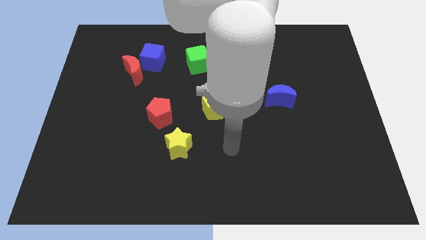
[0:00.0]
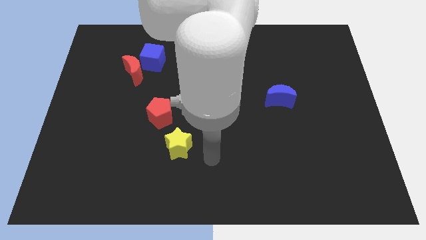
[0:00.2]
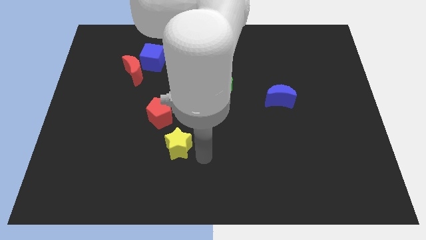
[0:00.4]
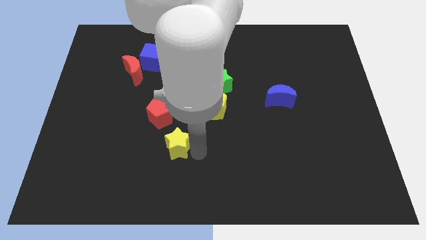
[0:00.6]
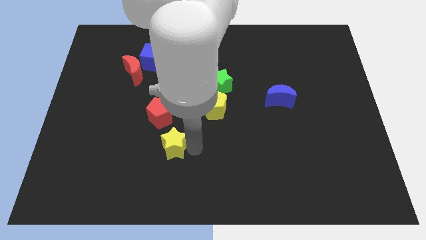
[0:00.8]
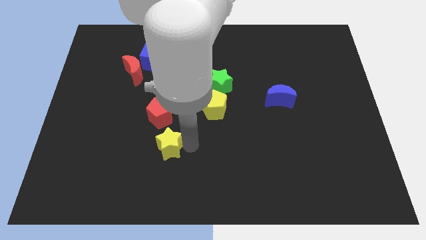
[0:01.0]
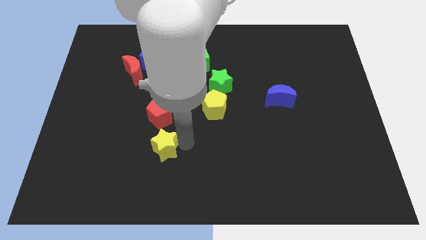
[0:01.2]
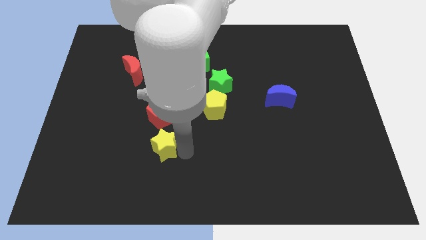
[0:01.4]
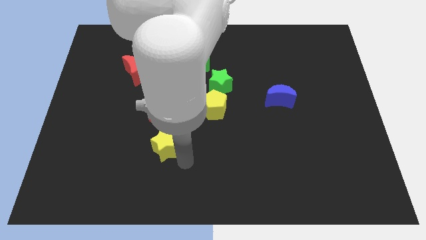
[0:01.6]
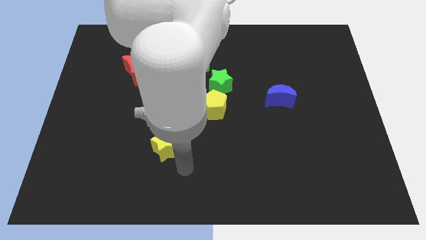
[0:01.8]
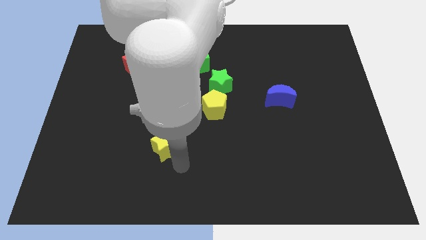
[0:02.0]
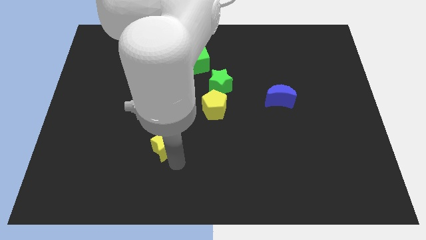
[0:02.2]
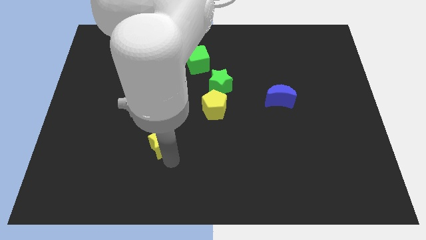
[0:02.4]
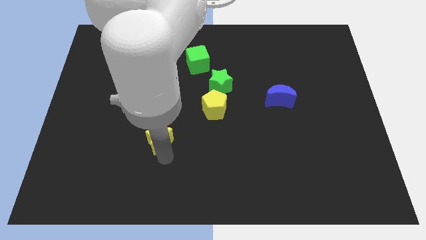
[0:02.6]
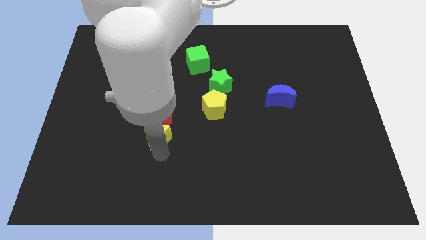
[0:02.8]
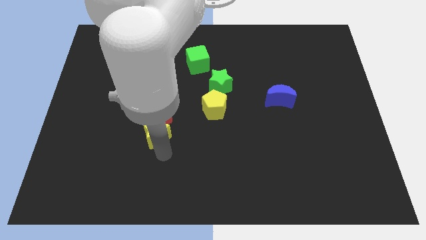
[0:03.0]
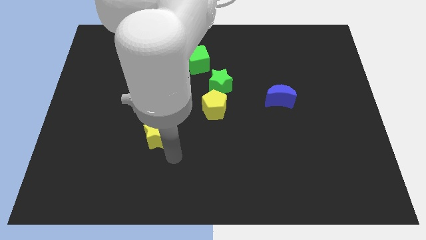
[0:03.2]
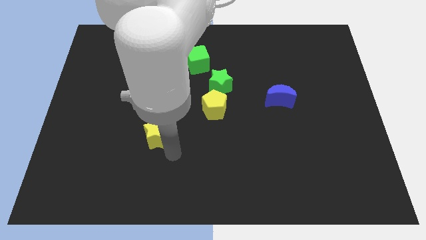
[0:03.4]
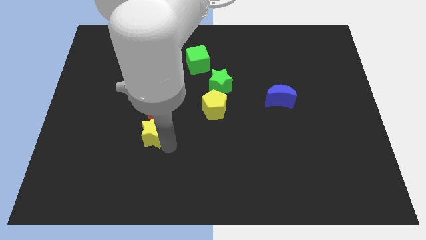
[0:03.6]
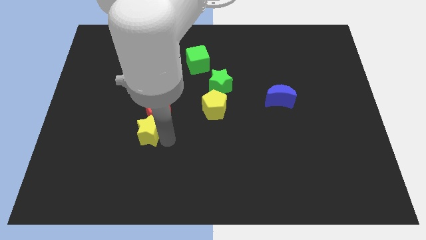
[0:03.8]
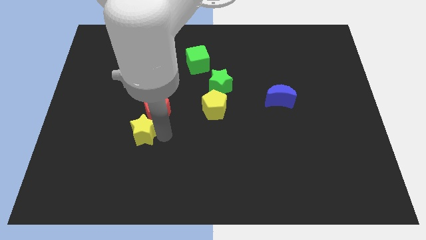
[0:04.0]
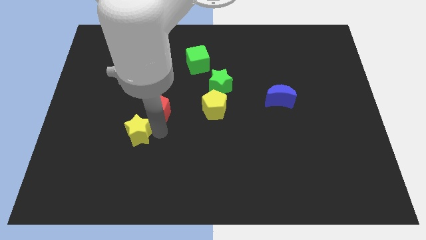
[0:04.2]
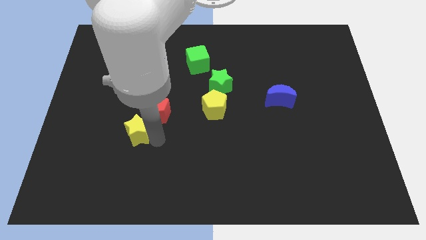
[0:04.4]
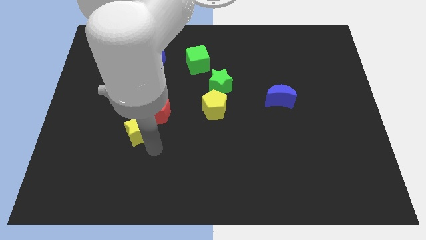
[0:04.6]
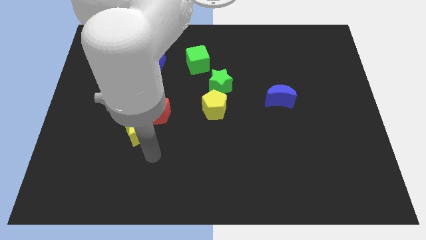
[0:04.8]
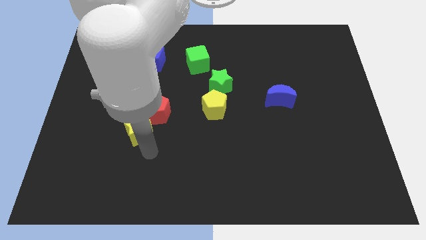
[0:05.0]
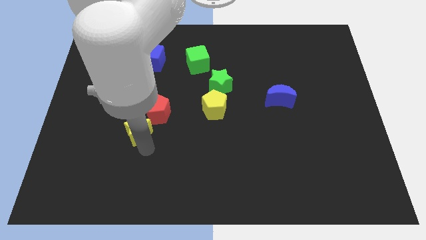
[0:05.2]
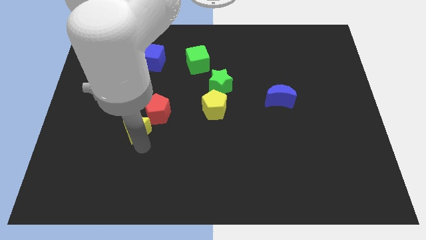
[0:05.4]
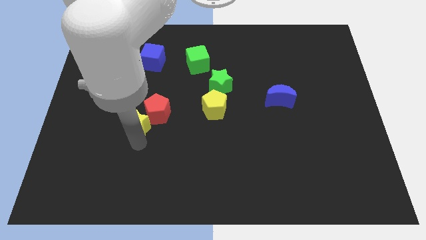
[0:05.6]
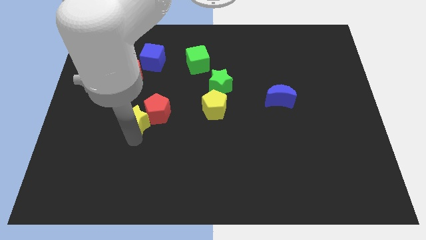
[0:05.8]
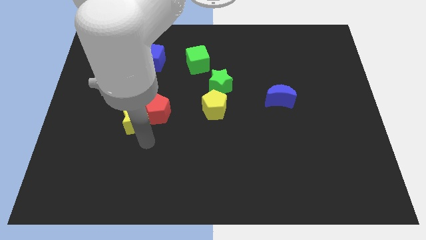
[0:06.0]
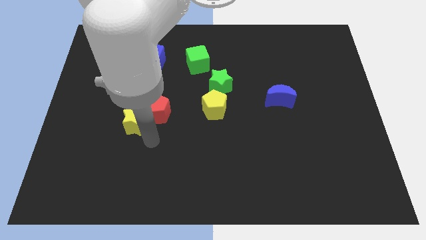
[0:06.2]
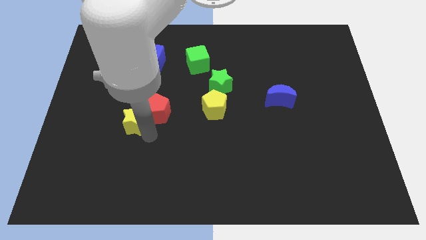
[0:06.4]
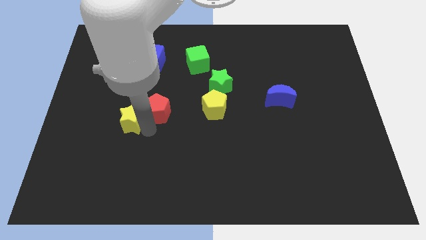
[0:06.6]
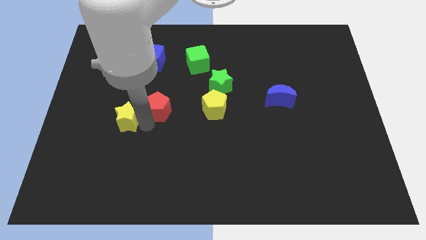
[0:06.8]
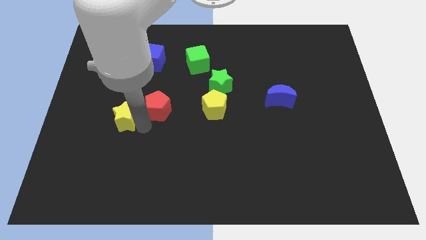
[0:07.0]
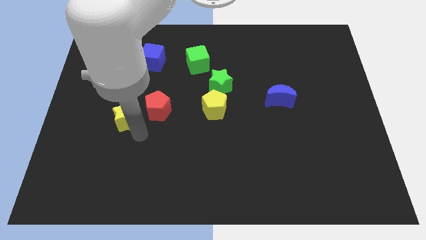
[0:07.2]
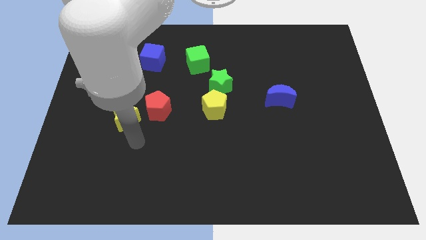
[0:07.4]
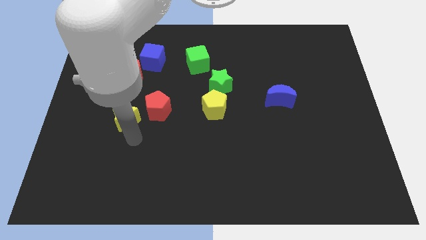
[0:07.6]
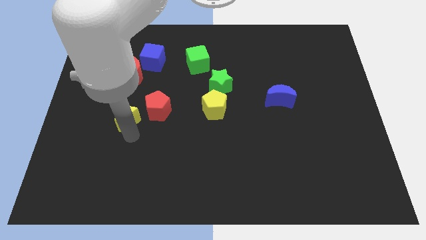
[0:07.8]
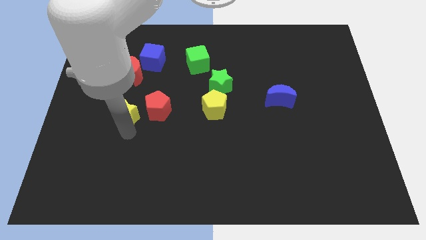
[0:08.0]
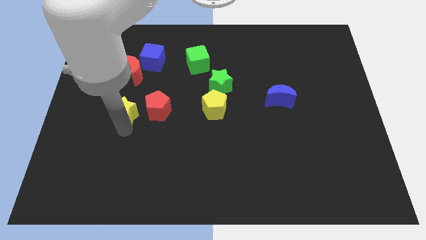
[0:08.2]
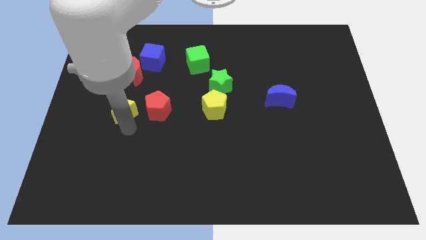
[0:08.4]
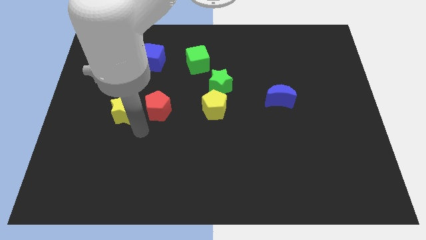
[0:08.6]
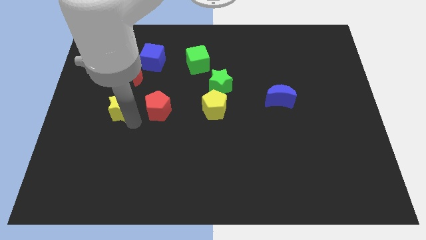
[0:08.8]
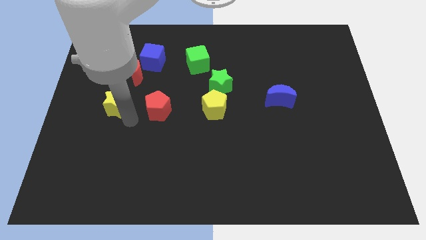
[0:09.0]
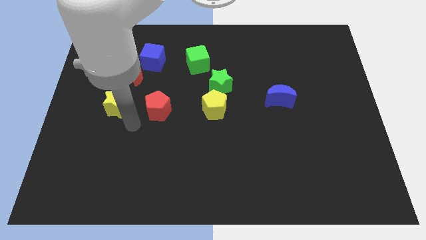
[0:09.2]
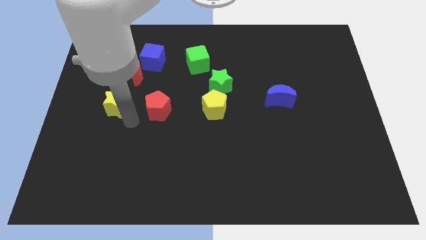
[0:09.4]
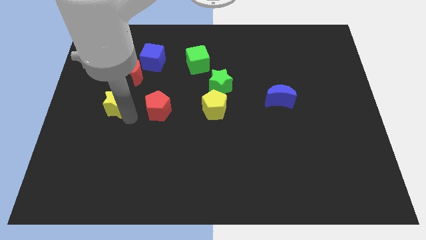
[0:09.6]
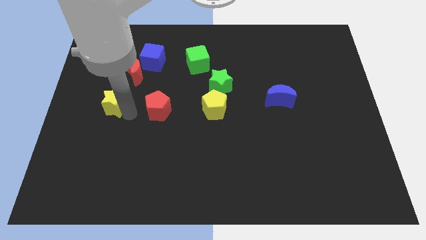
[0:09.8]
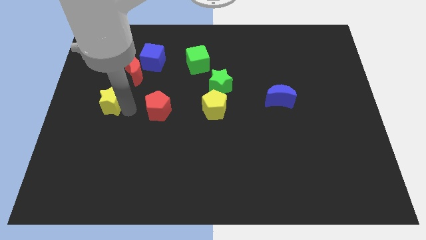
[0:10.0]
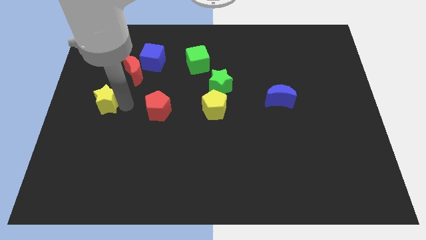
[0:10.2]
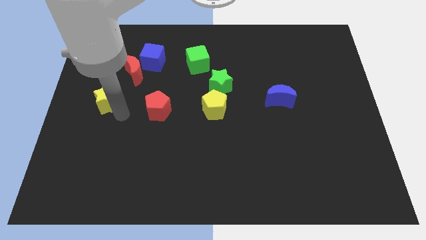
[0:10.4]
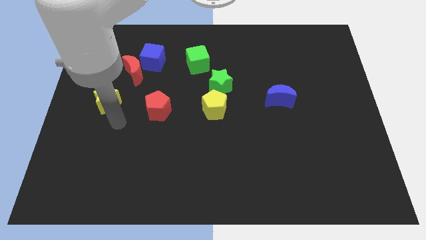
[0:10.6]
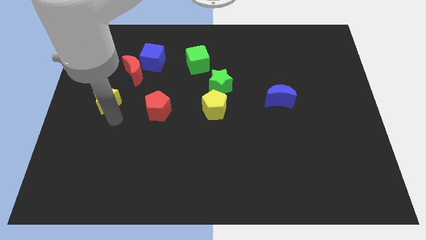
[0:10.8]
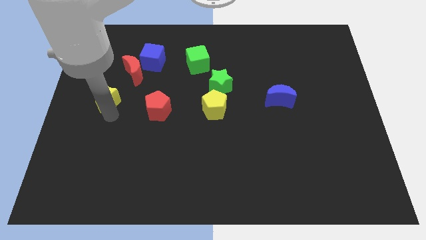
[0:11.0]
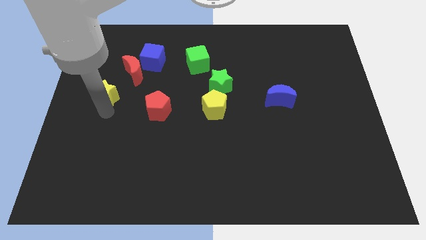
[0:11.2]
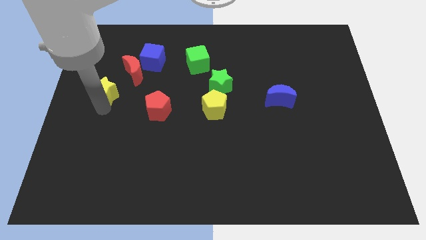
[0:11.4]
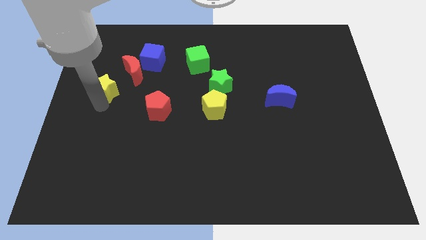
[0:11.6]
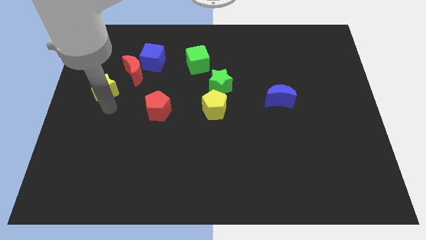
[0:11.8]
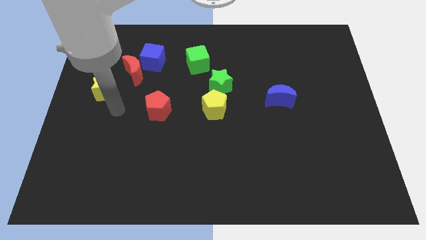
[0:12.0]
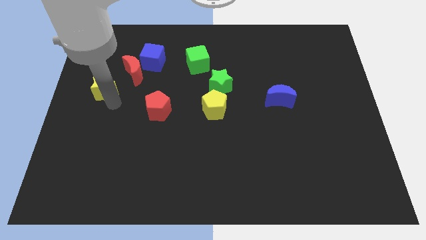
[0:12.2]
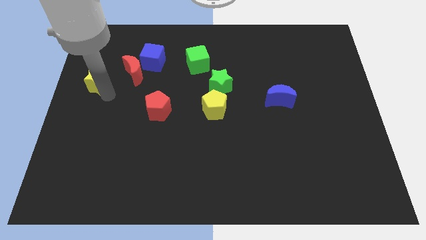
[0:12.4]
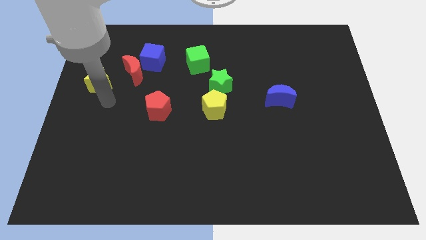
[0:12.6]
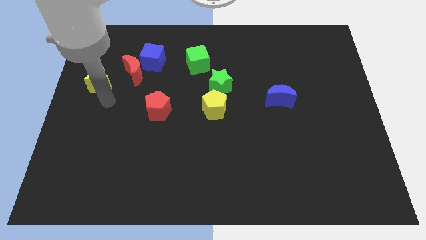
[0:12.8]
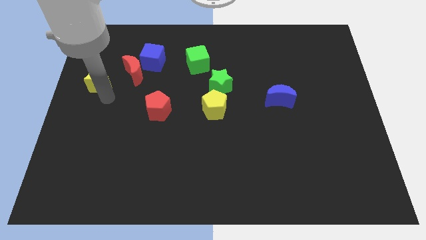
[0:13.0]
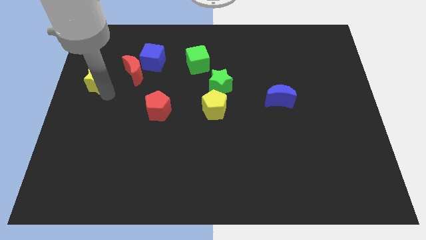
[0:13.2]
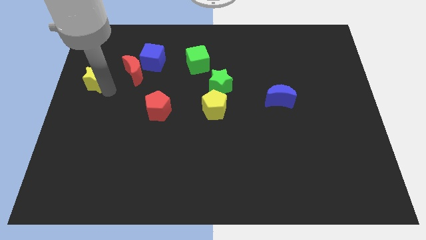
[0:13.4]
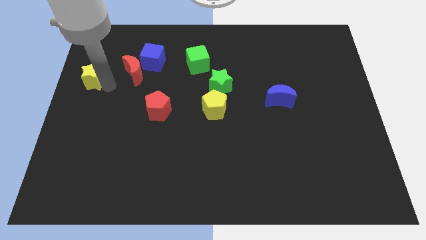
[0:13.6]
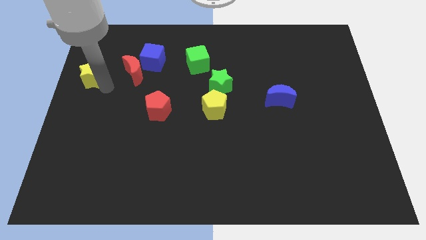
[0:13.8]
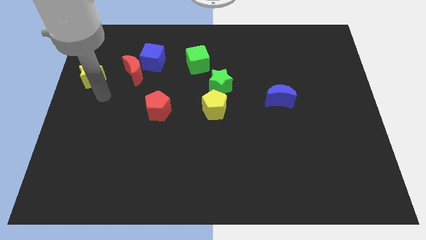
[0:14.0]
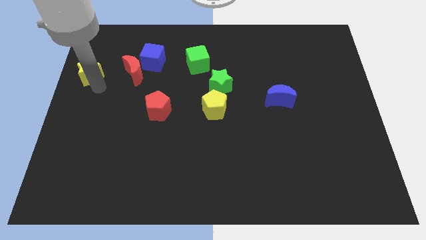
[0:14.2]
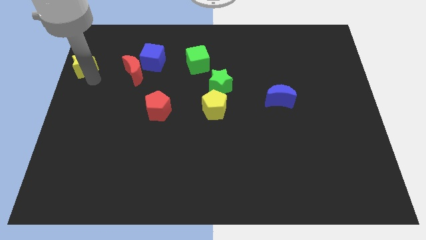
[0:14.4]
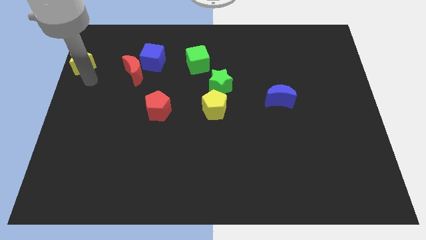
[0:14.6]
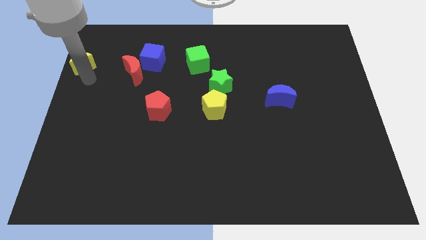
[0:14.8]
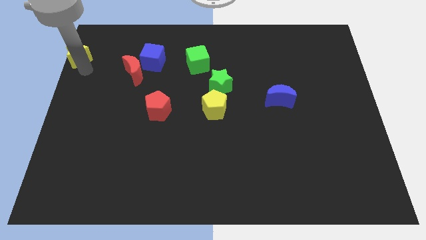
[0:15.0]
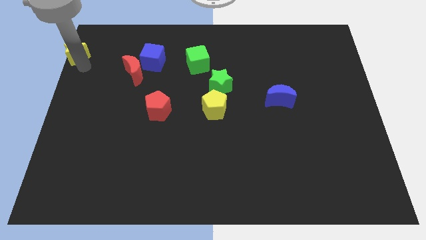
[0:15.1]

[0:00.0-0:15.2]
move the yellow star to the top left of the board
